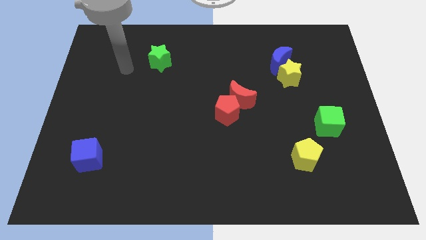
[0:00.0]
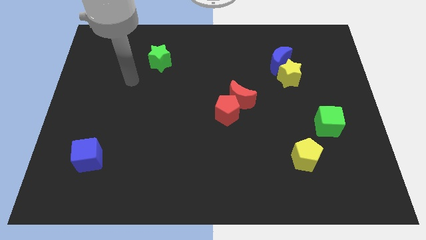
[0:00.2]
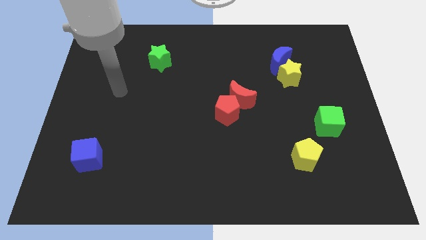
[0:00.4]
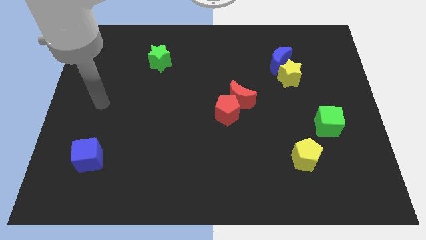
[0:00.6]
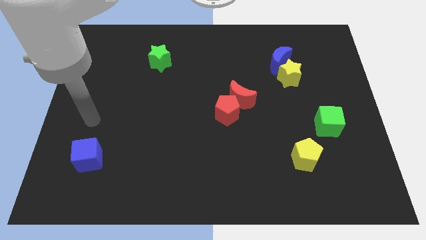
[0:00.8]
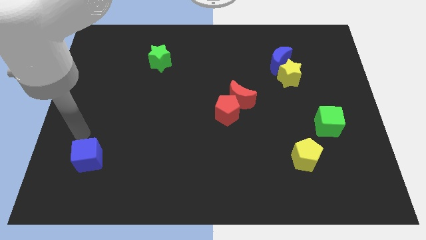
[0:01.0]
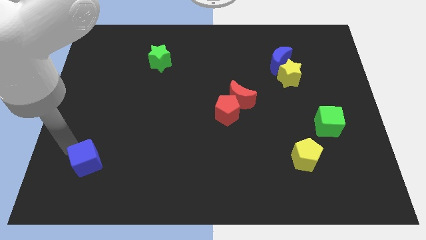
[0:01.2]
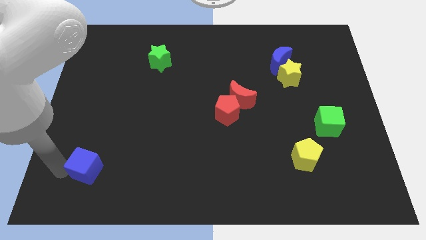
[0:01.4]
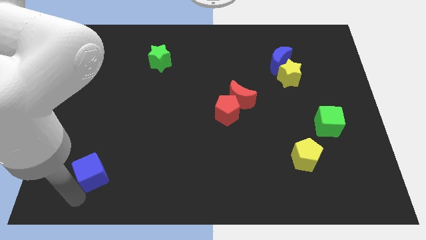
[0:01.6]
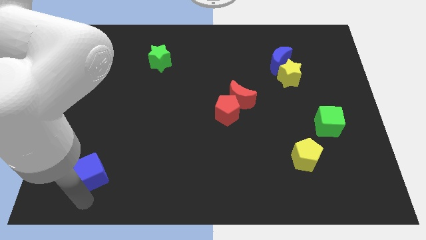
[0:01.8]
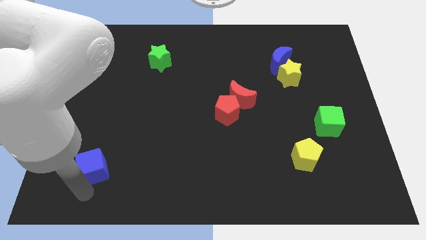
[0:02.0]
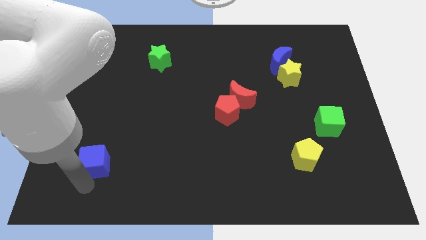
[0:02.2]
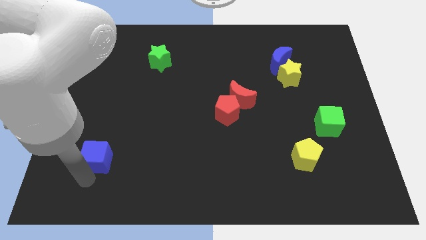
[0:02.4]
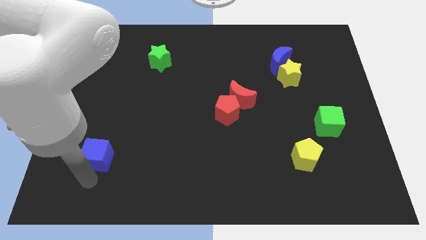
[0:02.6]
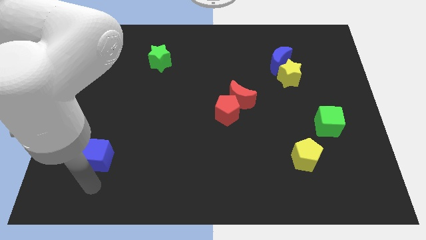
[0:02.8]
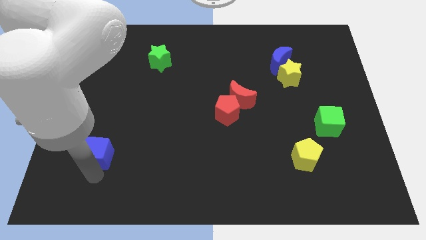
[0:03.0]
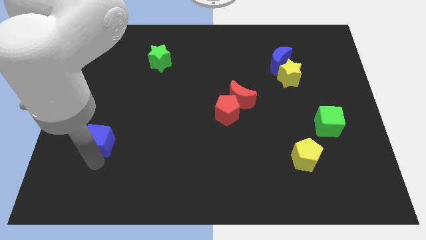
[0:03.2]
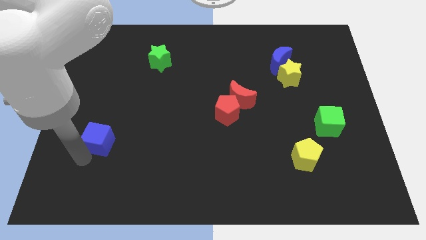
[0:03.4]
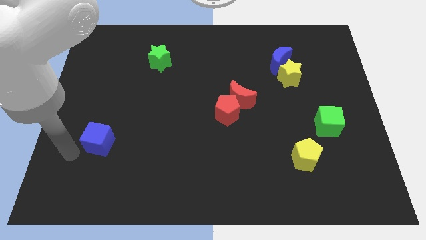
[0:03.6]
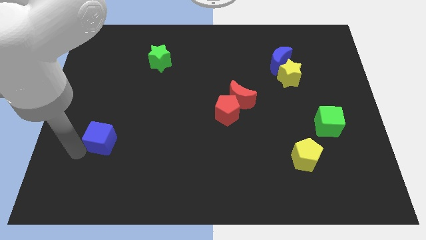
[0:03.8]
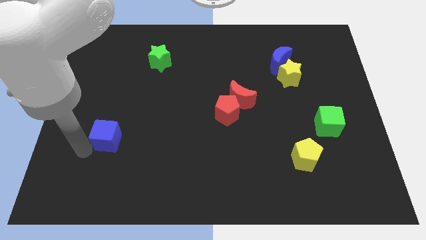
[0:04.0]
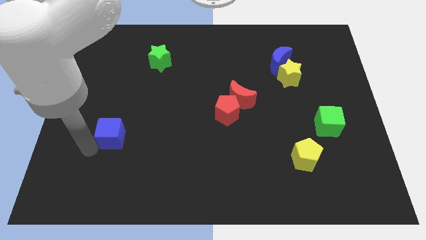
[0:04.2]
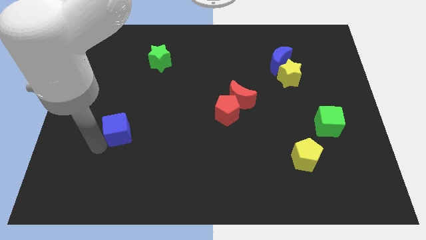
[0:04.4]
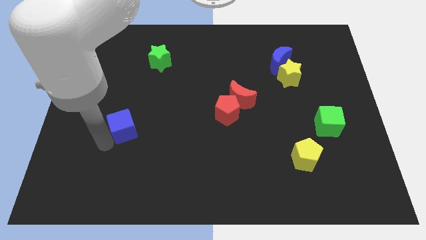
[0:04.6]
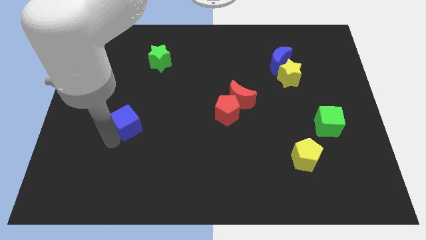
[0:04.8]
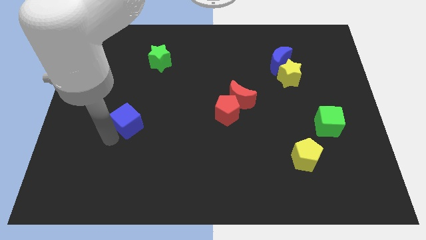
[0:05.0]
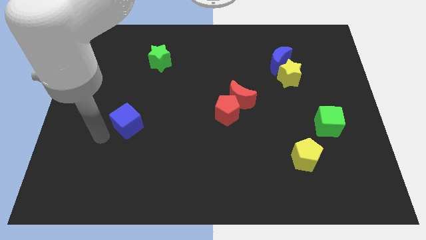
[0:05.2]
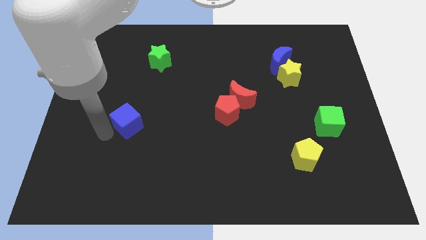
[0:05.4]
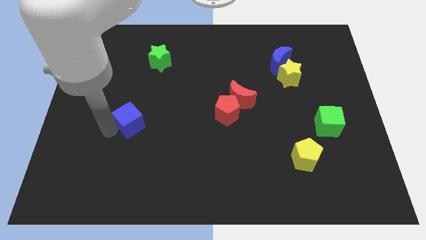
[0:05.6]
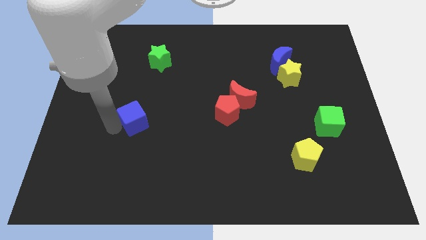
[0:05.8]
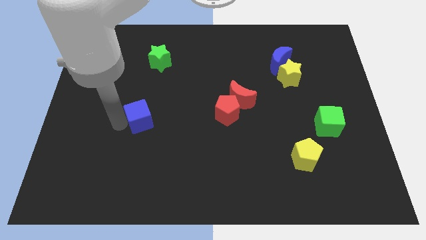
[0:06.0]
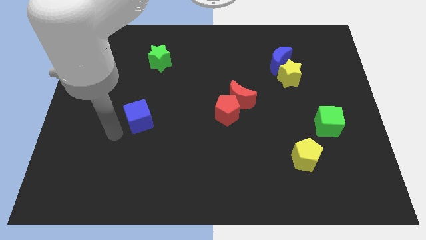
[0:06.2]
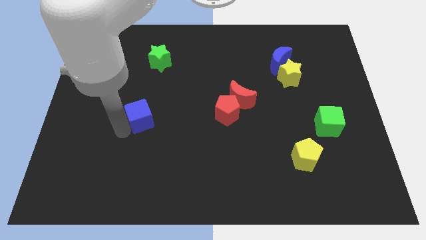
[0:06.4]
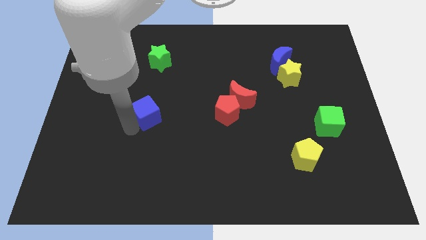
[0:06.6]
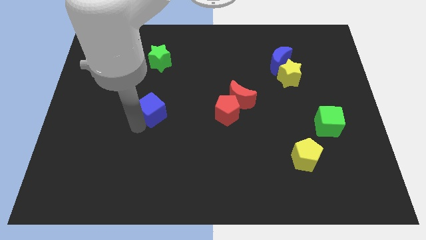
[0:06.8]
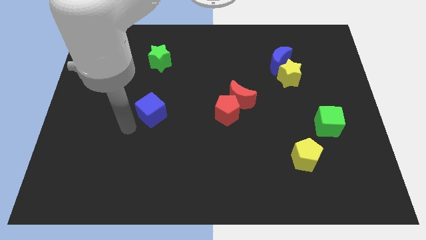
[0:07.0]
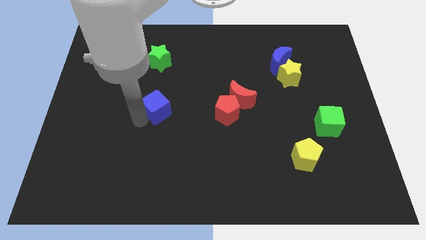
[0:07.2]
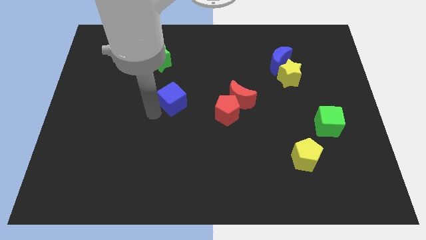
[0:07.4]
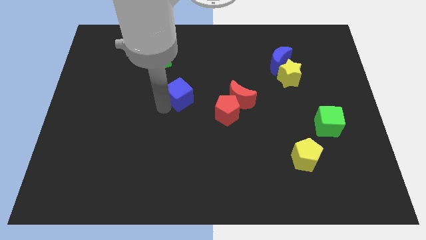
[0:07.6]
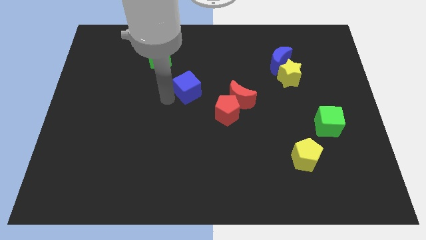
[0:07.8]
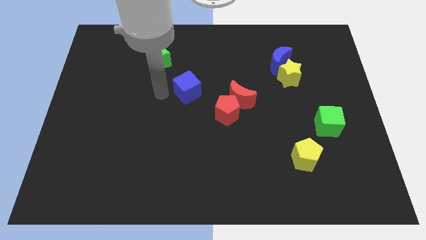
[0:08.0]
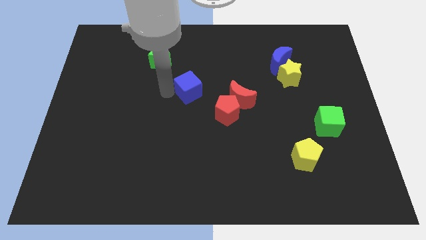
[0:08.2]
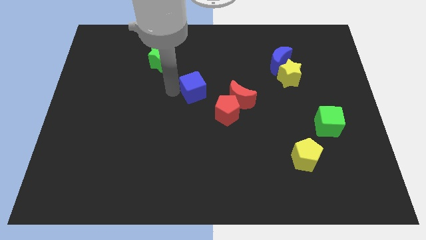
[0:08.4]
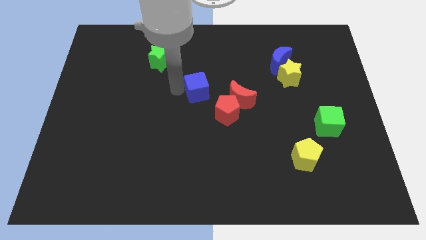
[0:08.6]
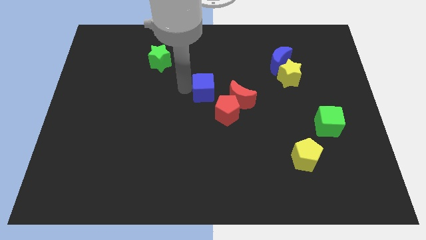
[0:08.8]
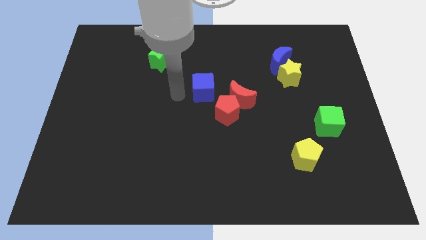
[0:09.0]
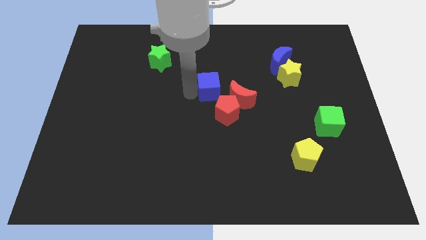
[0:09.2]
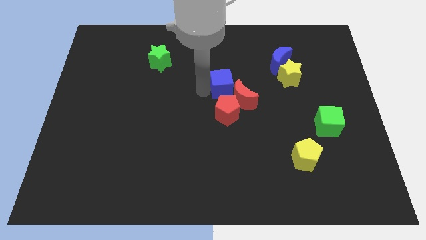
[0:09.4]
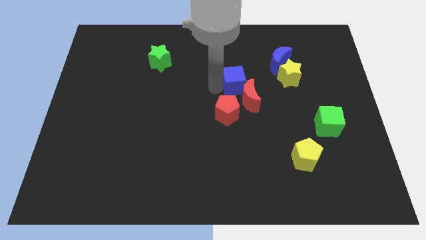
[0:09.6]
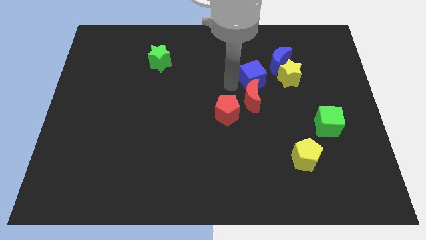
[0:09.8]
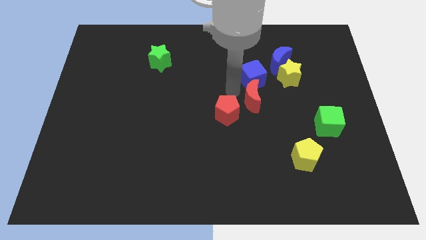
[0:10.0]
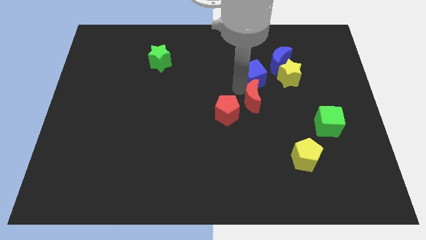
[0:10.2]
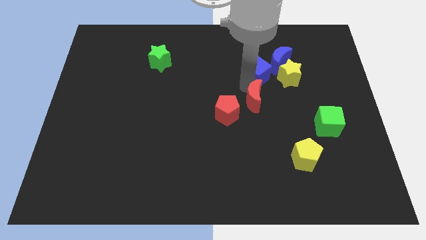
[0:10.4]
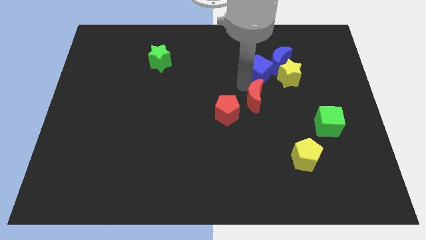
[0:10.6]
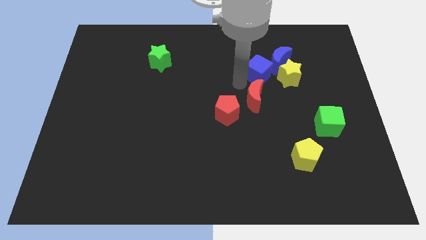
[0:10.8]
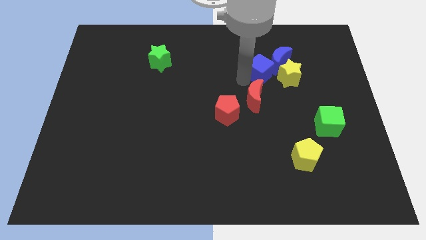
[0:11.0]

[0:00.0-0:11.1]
move the blue cube towards the blue moon

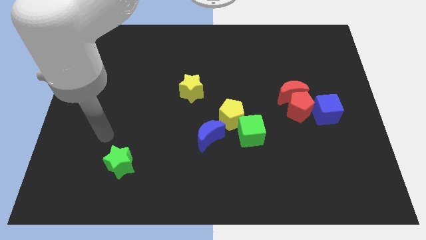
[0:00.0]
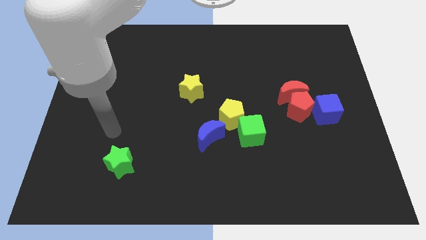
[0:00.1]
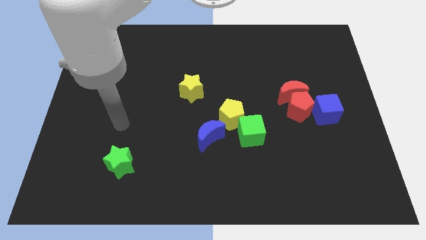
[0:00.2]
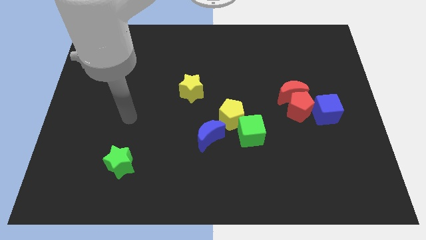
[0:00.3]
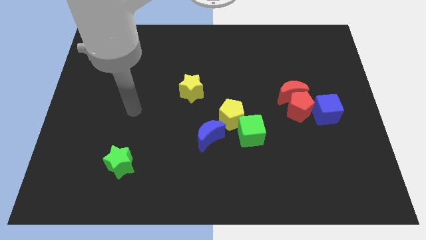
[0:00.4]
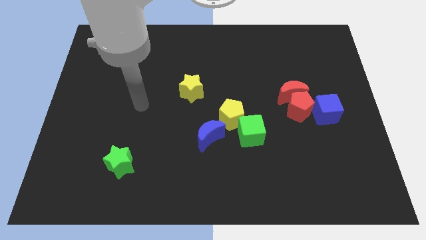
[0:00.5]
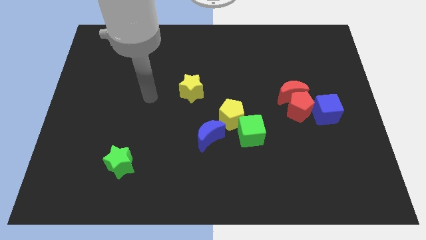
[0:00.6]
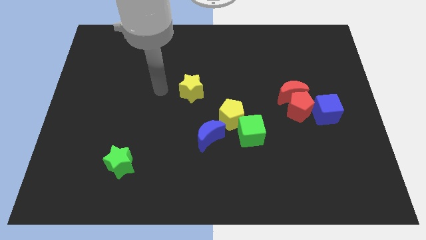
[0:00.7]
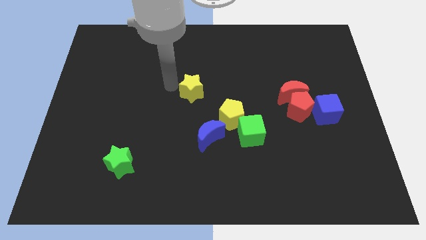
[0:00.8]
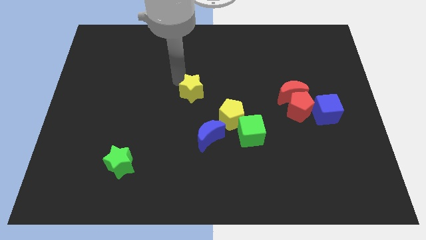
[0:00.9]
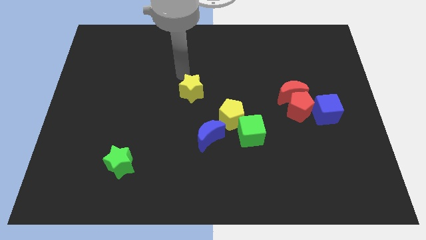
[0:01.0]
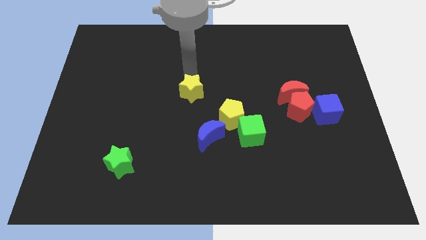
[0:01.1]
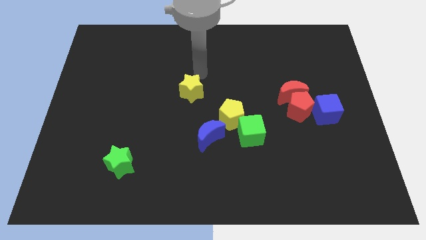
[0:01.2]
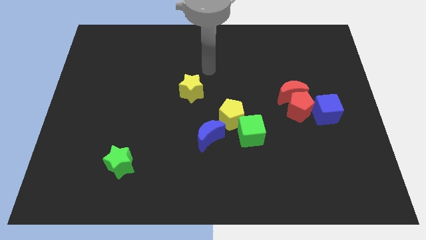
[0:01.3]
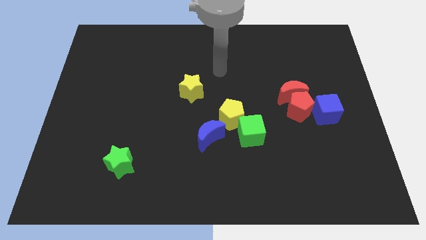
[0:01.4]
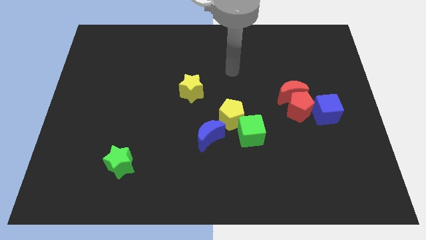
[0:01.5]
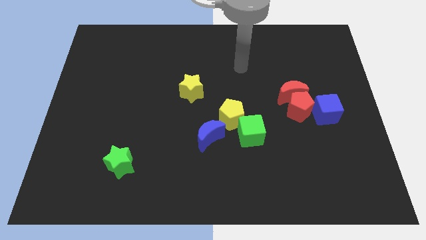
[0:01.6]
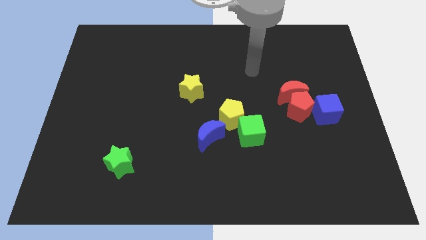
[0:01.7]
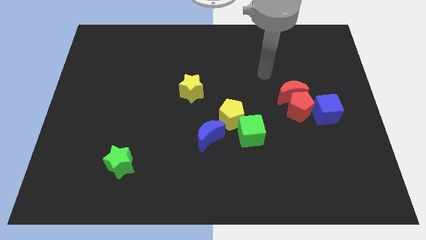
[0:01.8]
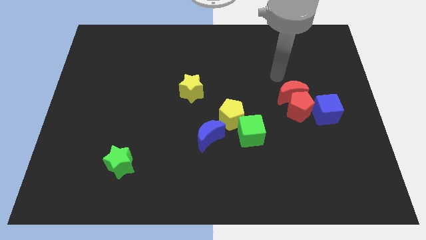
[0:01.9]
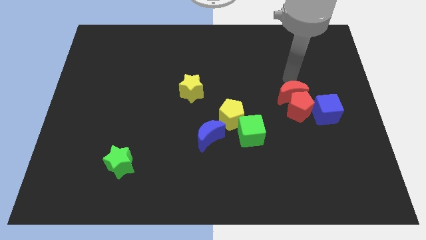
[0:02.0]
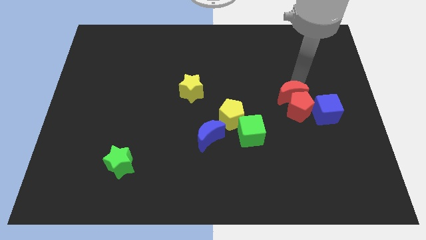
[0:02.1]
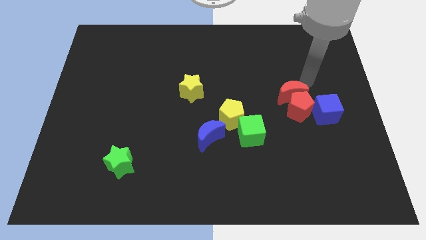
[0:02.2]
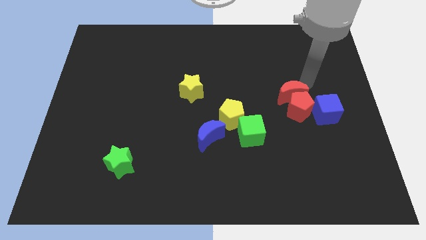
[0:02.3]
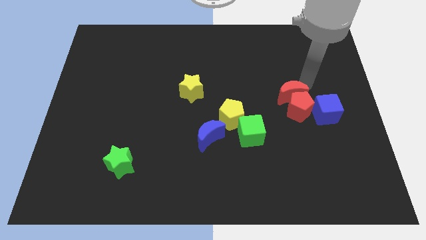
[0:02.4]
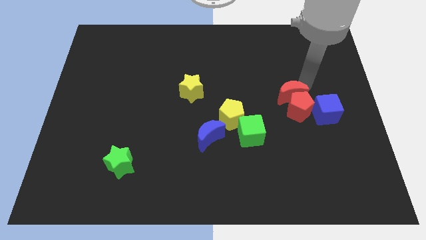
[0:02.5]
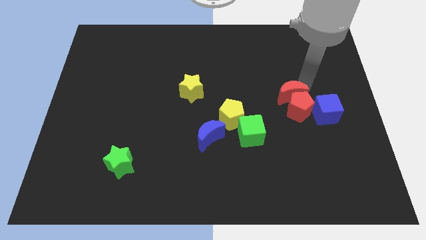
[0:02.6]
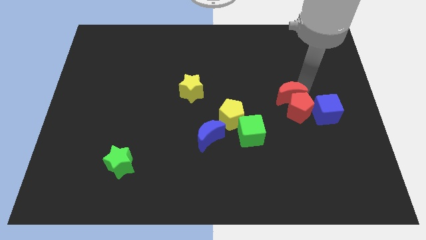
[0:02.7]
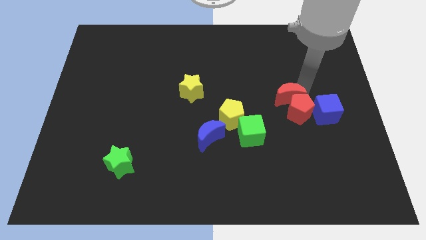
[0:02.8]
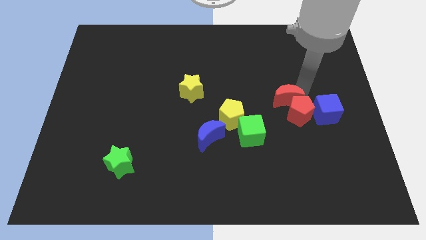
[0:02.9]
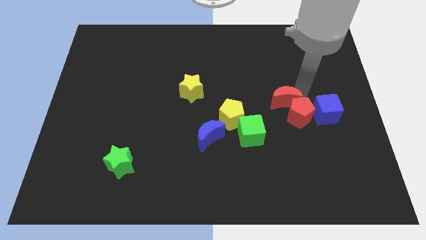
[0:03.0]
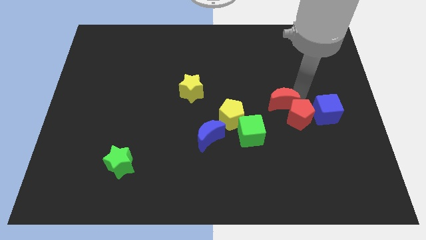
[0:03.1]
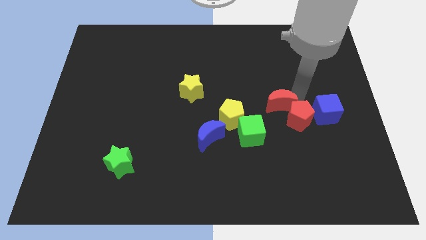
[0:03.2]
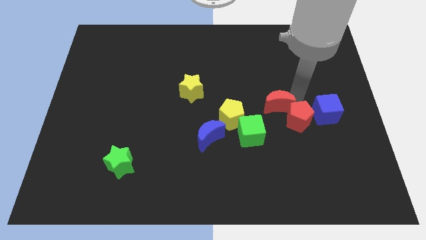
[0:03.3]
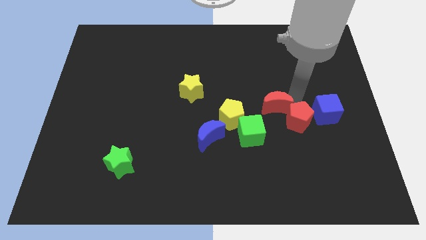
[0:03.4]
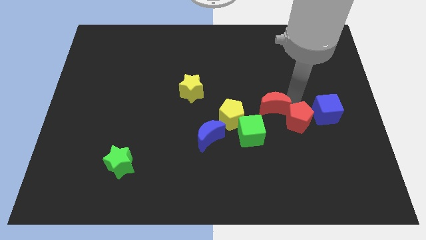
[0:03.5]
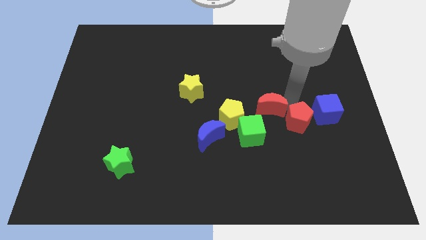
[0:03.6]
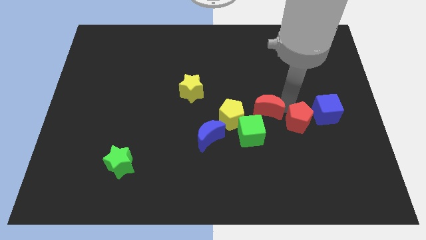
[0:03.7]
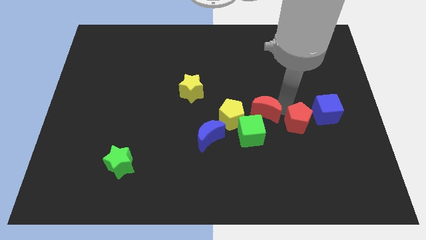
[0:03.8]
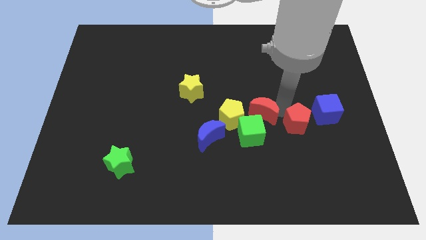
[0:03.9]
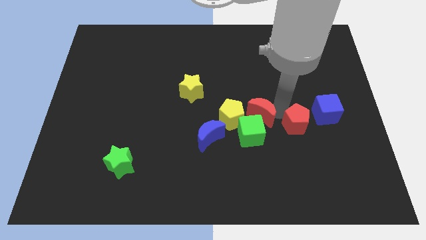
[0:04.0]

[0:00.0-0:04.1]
slide the red moon to the green cube
